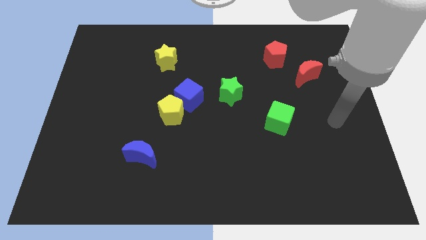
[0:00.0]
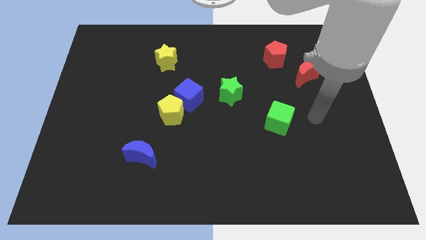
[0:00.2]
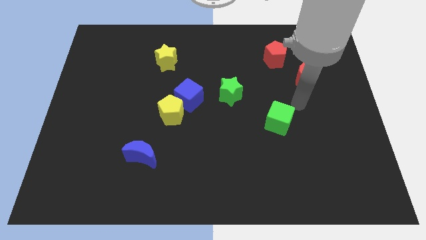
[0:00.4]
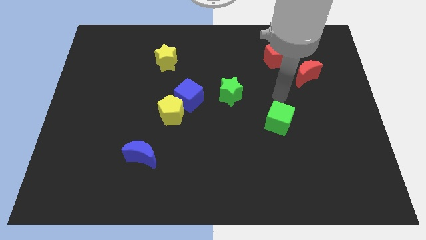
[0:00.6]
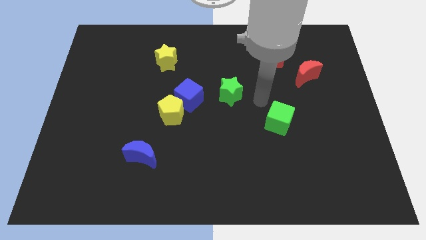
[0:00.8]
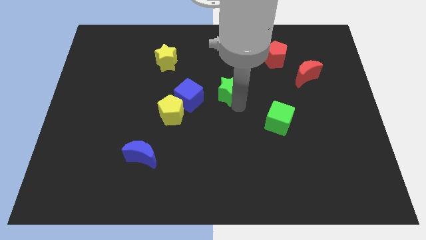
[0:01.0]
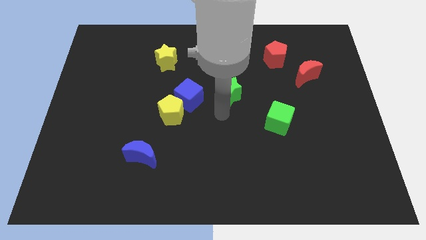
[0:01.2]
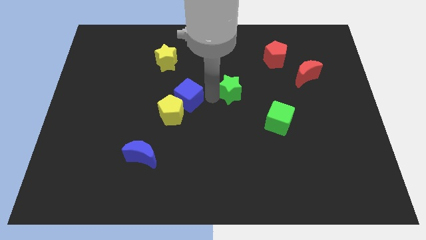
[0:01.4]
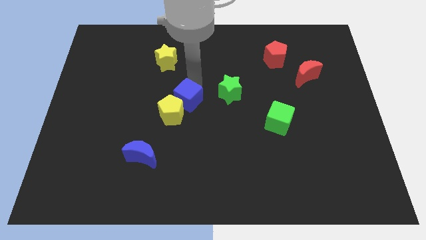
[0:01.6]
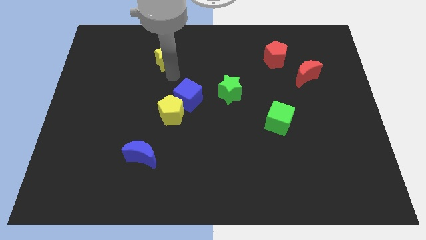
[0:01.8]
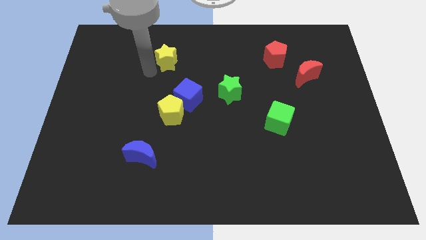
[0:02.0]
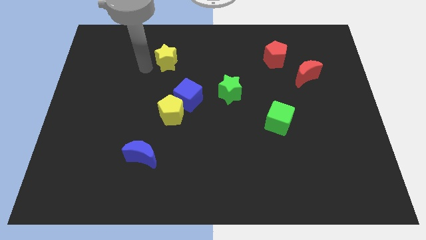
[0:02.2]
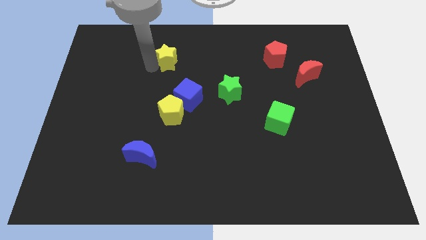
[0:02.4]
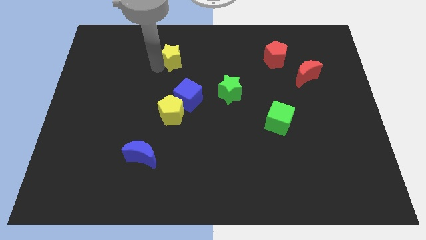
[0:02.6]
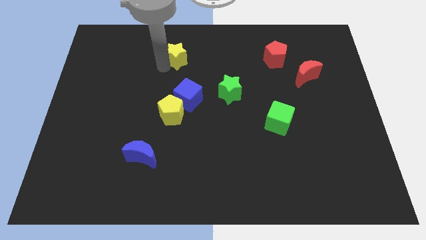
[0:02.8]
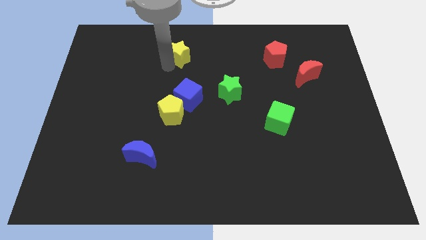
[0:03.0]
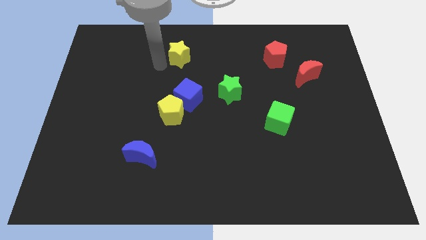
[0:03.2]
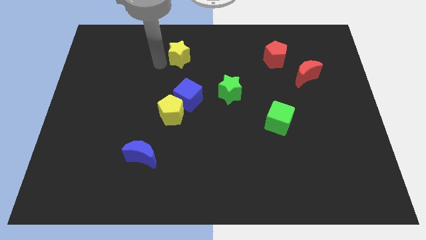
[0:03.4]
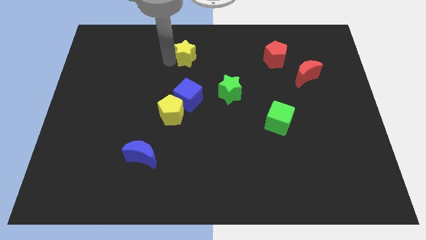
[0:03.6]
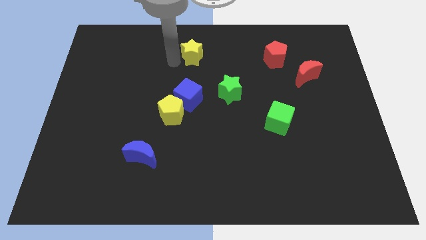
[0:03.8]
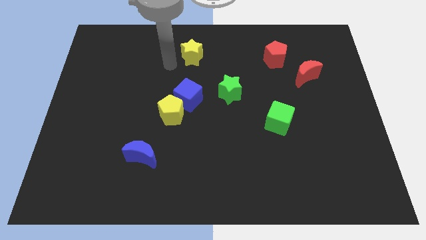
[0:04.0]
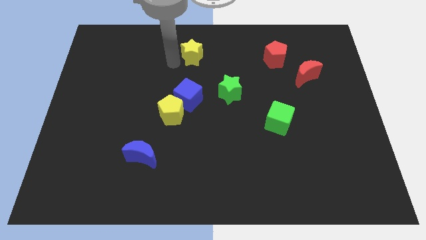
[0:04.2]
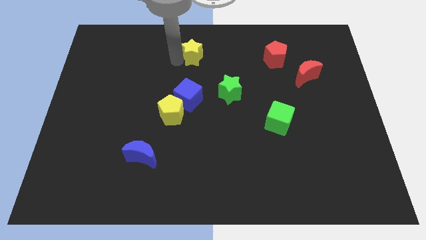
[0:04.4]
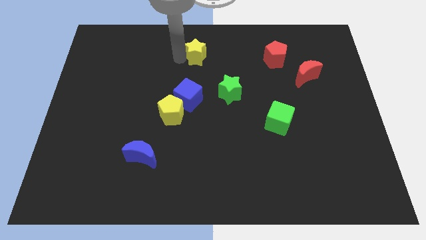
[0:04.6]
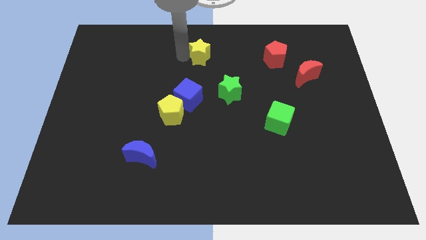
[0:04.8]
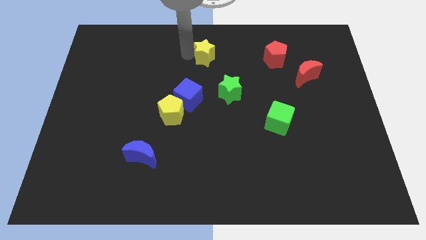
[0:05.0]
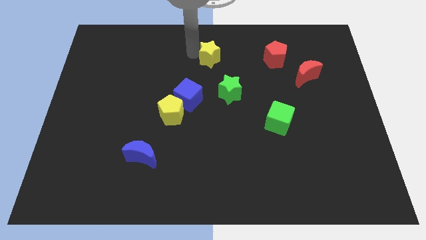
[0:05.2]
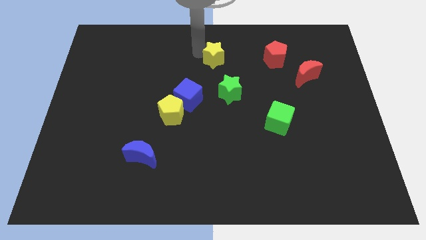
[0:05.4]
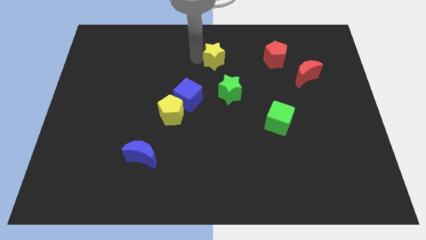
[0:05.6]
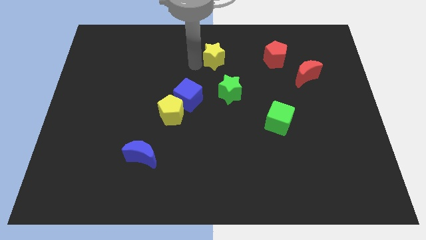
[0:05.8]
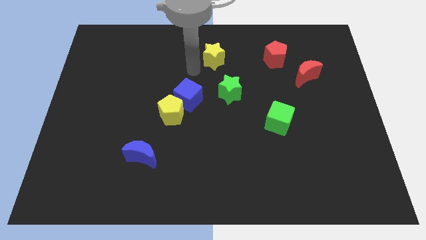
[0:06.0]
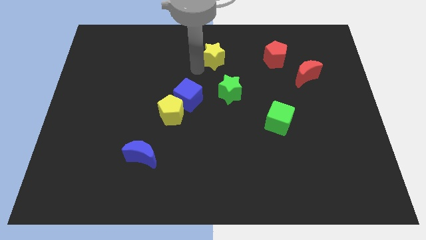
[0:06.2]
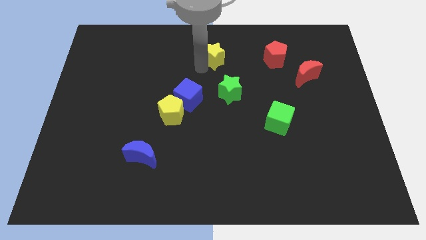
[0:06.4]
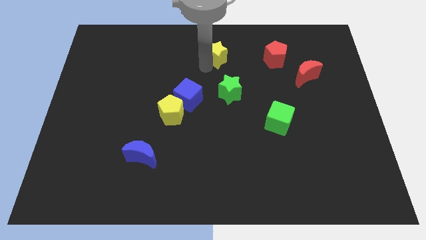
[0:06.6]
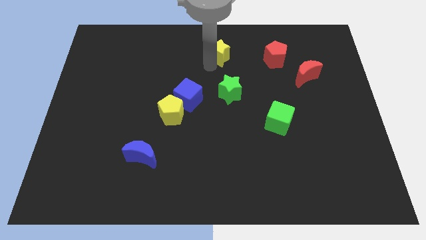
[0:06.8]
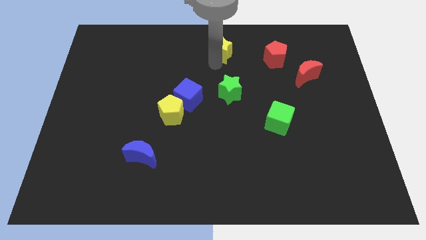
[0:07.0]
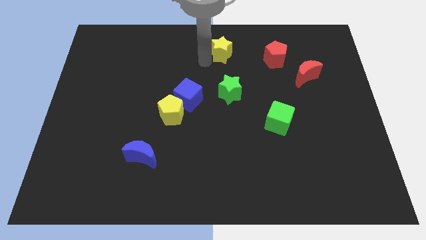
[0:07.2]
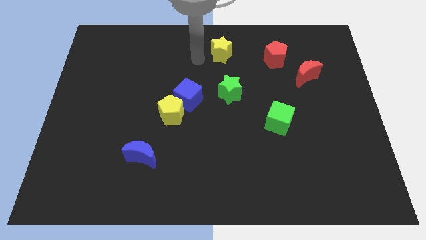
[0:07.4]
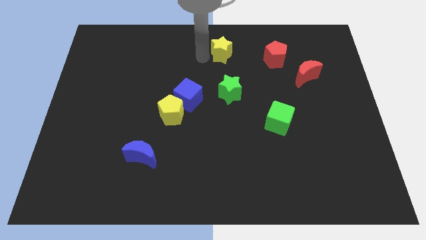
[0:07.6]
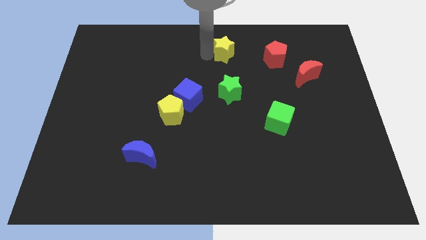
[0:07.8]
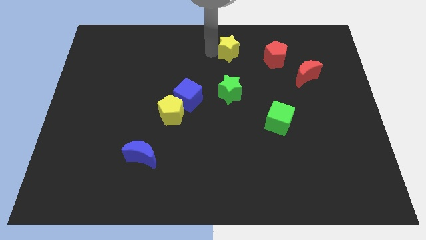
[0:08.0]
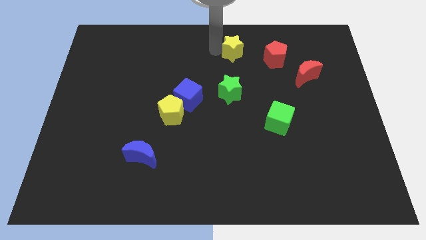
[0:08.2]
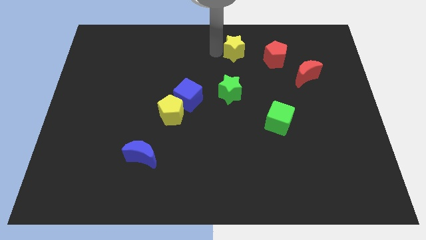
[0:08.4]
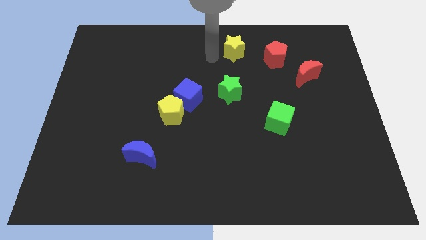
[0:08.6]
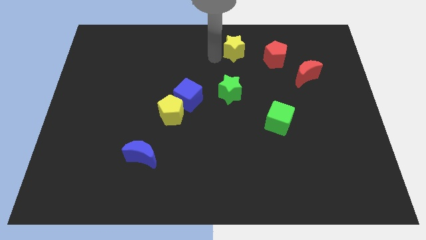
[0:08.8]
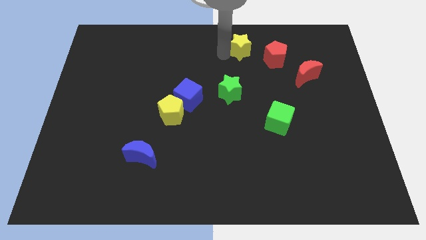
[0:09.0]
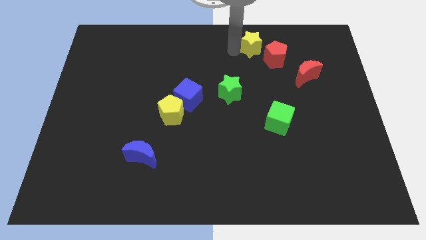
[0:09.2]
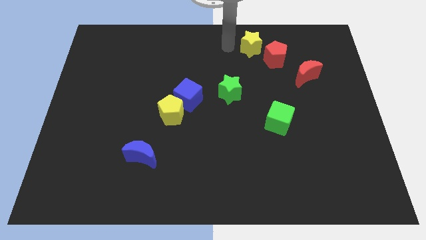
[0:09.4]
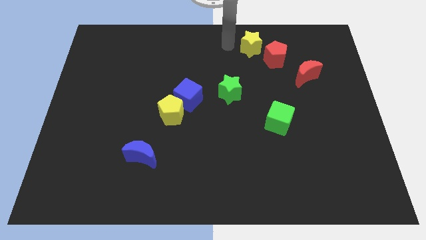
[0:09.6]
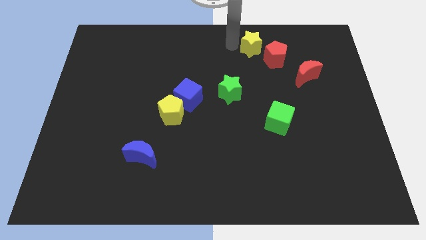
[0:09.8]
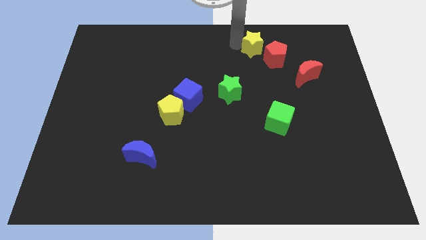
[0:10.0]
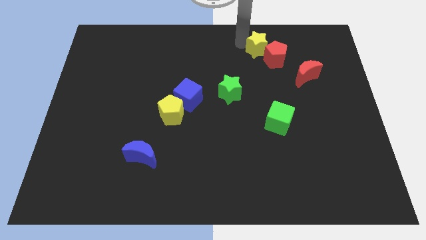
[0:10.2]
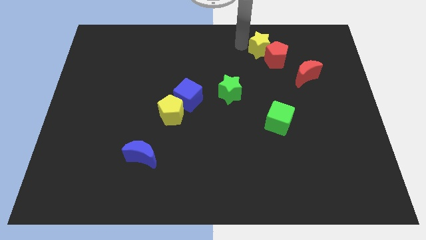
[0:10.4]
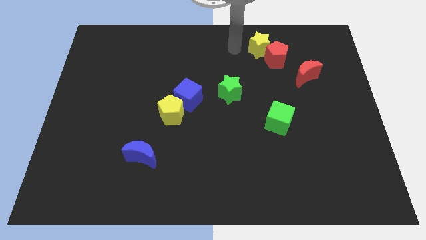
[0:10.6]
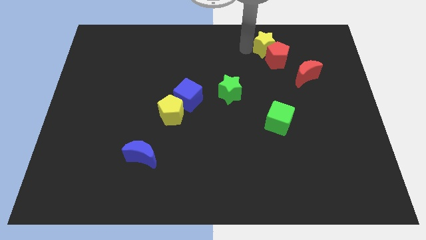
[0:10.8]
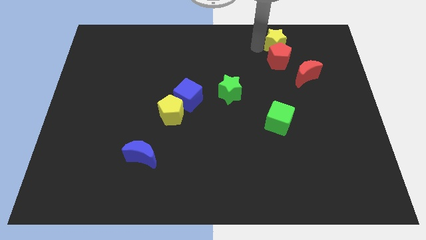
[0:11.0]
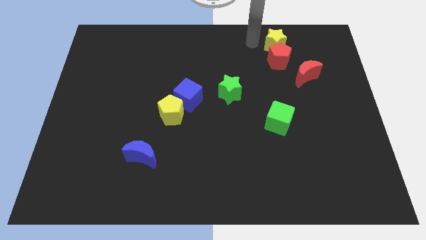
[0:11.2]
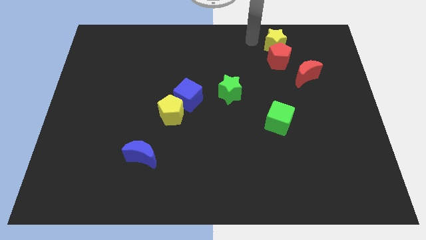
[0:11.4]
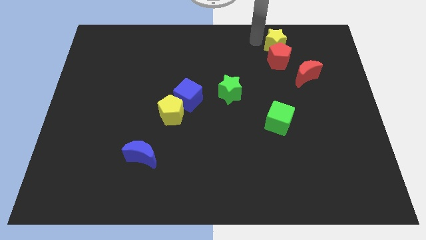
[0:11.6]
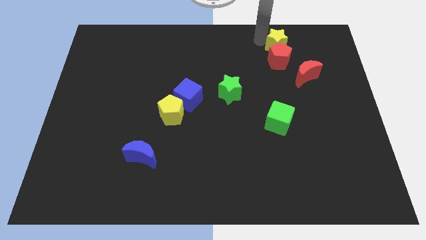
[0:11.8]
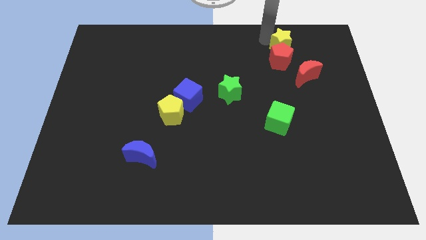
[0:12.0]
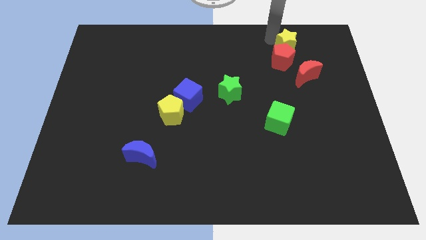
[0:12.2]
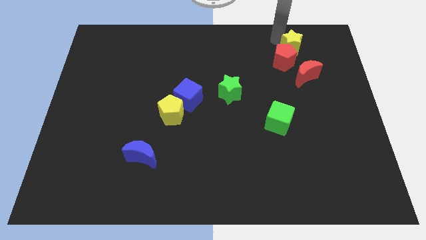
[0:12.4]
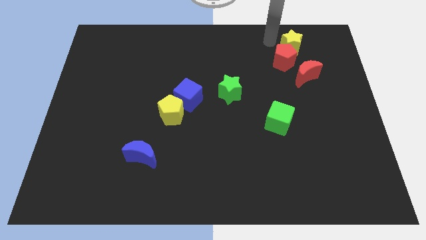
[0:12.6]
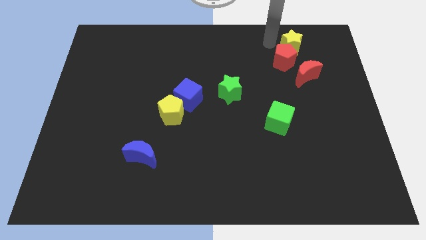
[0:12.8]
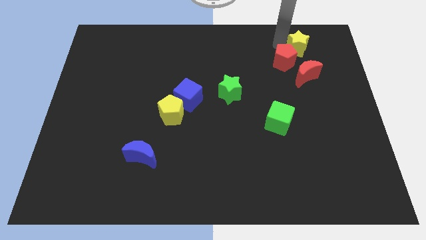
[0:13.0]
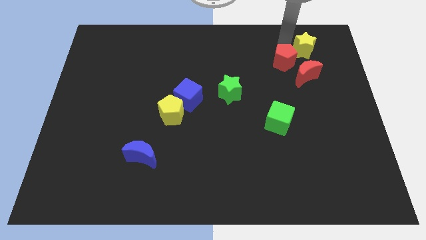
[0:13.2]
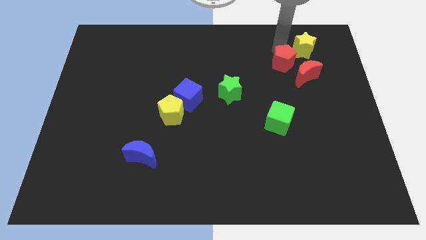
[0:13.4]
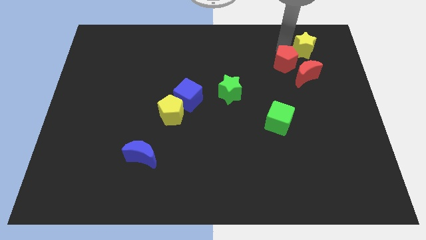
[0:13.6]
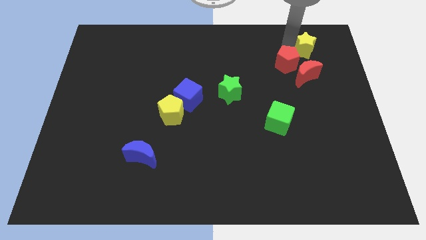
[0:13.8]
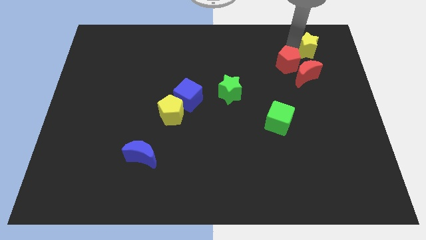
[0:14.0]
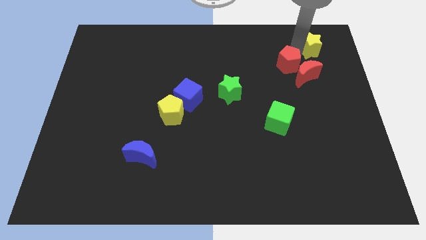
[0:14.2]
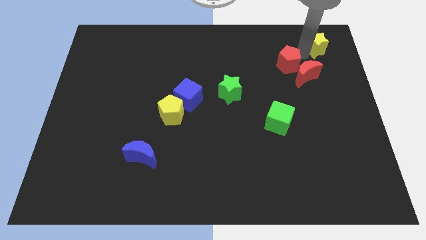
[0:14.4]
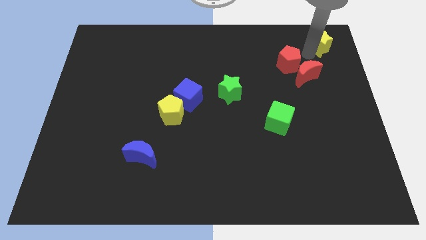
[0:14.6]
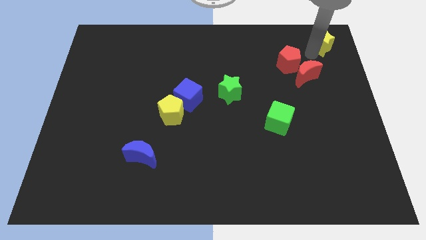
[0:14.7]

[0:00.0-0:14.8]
put the yellow star to the top right
